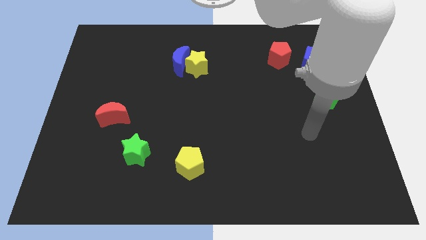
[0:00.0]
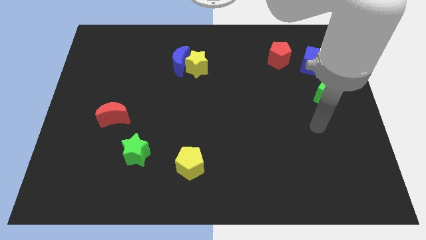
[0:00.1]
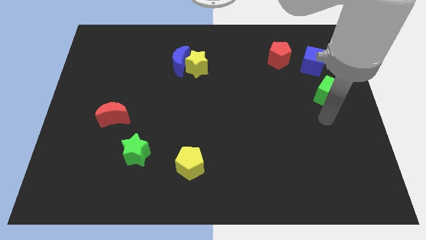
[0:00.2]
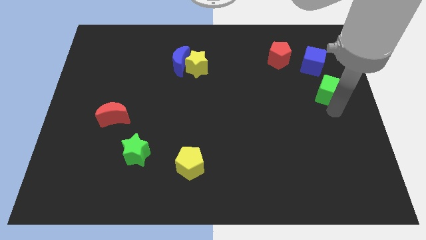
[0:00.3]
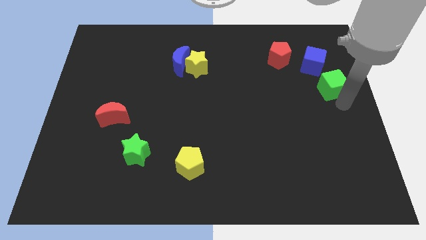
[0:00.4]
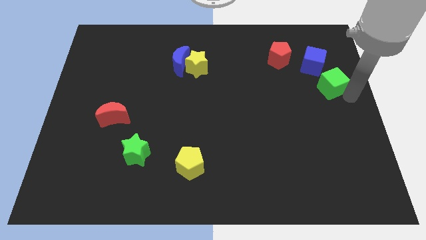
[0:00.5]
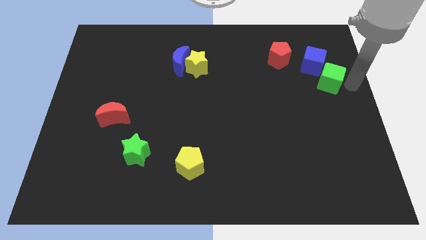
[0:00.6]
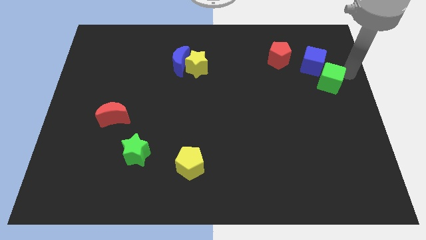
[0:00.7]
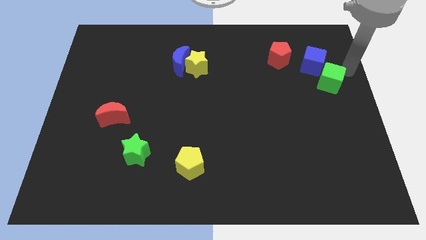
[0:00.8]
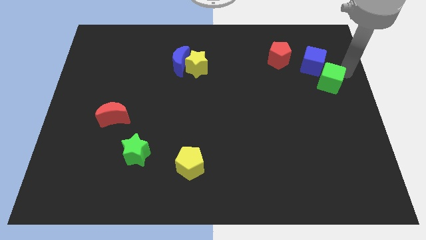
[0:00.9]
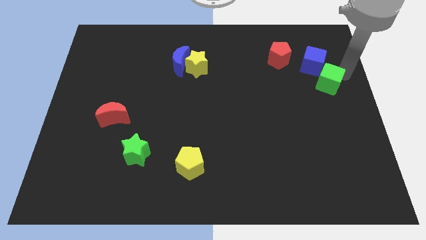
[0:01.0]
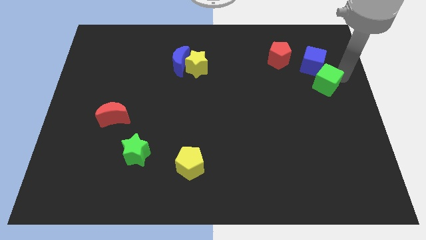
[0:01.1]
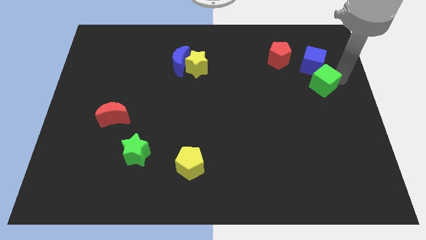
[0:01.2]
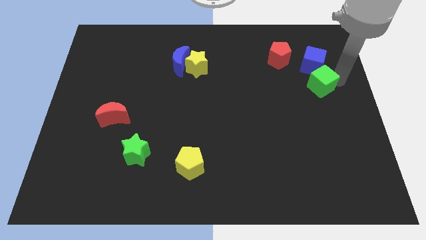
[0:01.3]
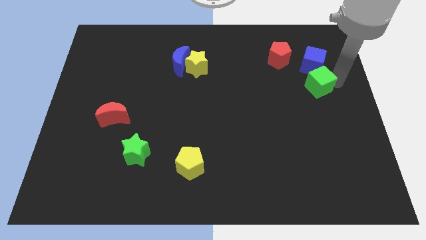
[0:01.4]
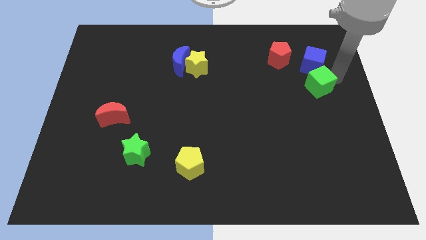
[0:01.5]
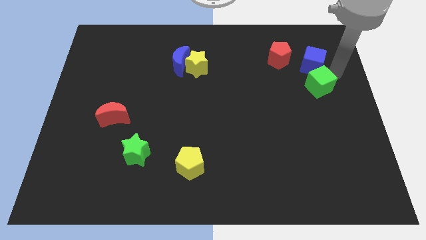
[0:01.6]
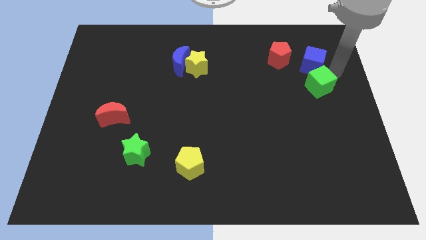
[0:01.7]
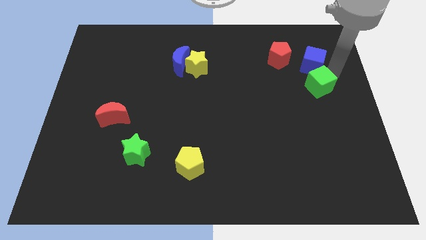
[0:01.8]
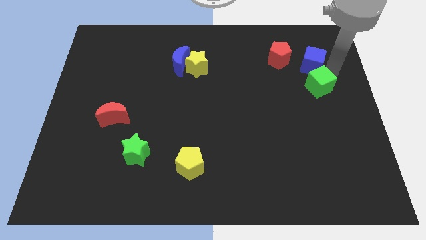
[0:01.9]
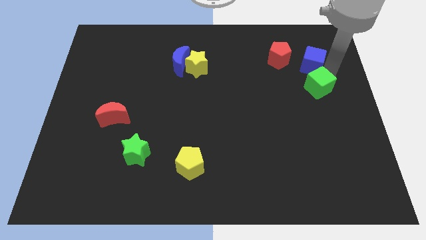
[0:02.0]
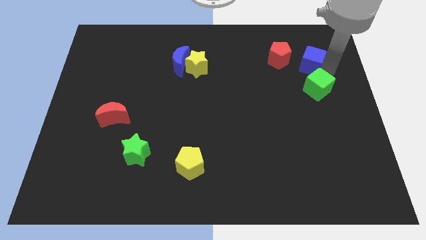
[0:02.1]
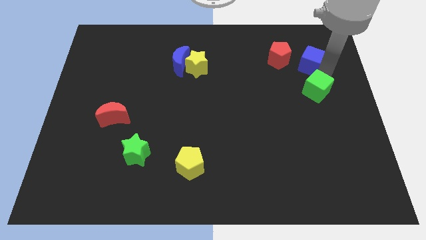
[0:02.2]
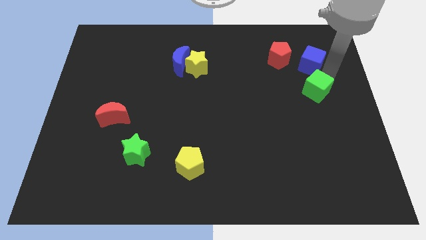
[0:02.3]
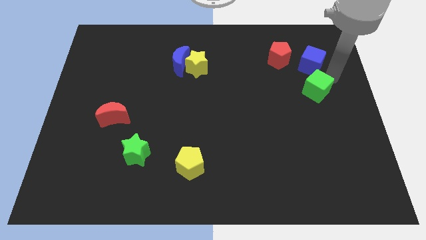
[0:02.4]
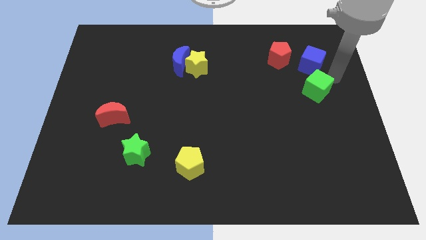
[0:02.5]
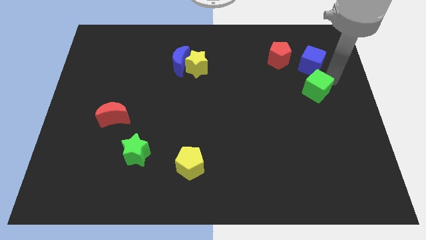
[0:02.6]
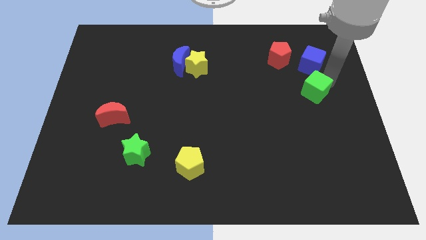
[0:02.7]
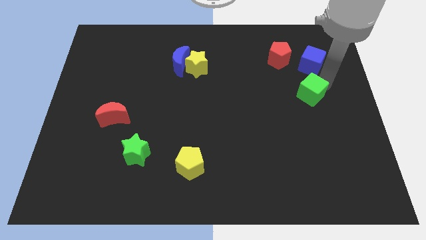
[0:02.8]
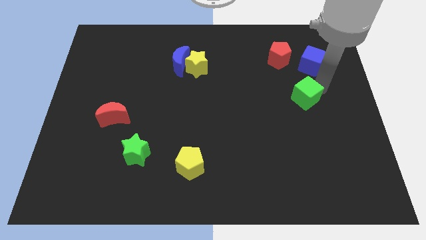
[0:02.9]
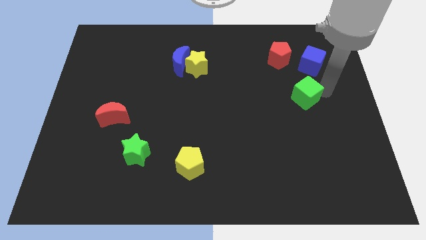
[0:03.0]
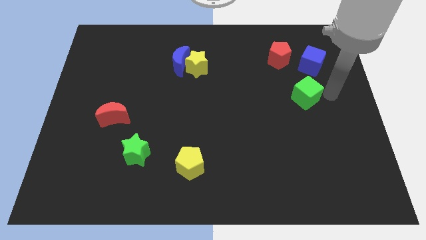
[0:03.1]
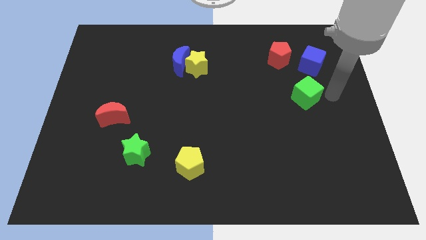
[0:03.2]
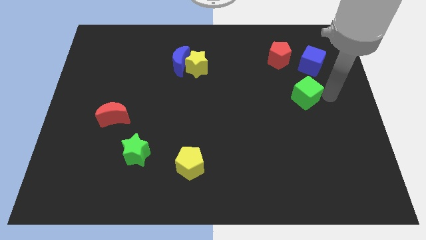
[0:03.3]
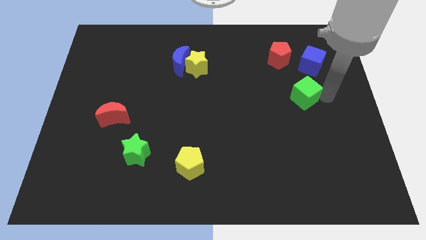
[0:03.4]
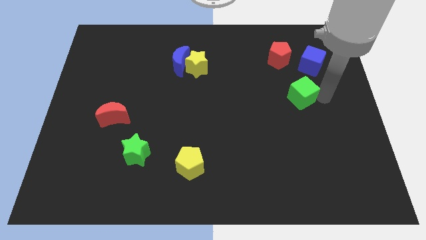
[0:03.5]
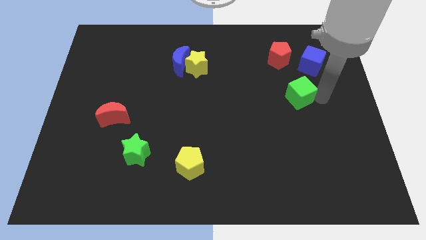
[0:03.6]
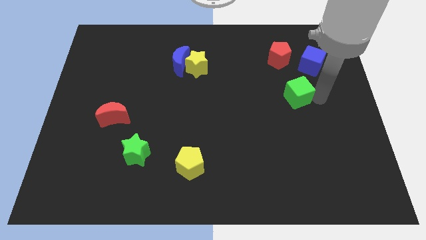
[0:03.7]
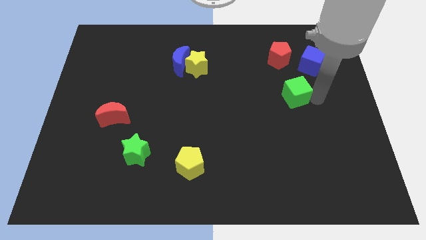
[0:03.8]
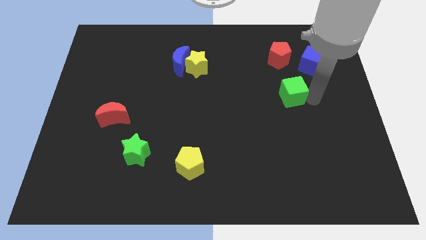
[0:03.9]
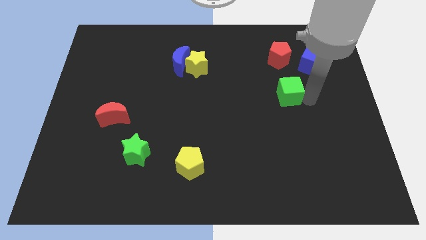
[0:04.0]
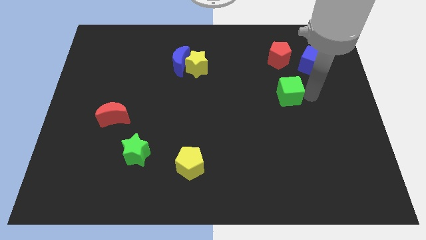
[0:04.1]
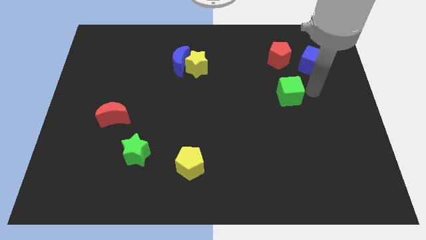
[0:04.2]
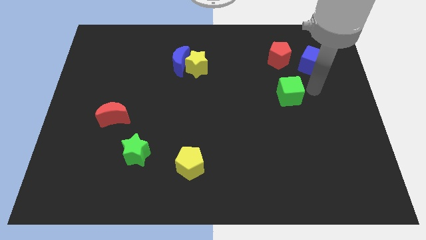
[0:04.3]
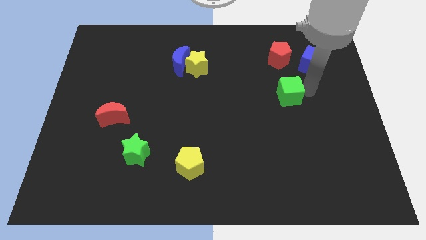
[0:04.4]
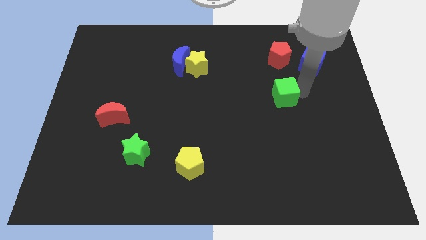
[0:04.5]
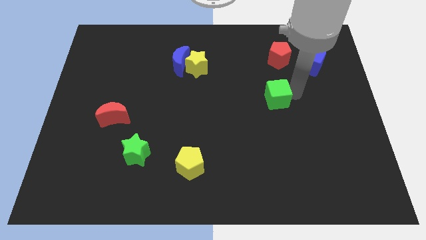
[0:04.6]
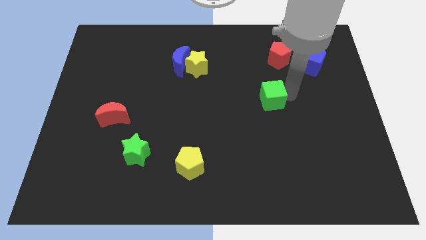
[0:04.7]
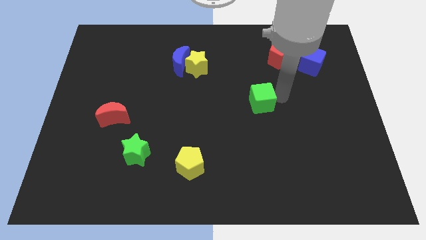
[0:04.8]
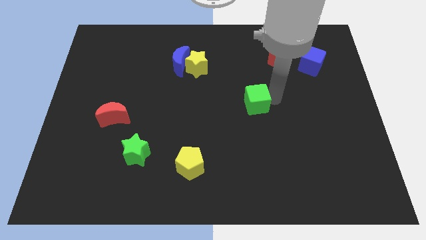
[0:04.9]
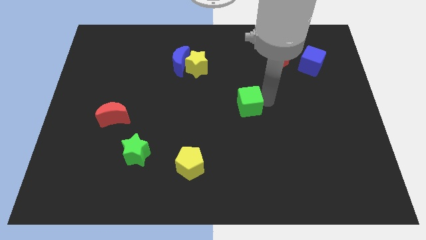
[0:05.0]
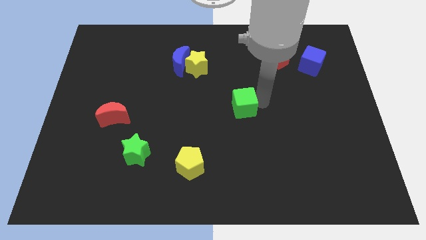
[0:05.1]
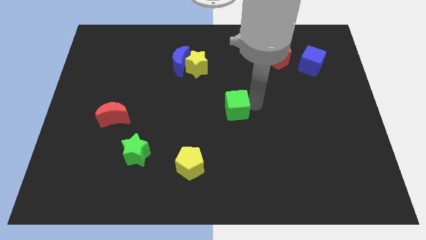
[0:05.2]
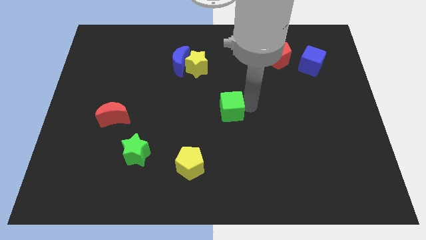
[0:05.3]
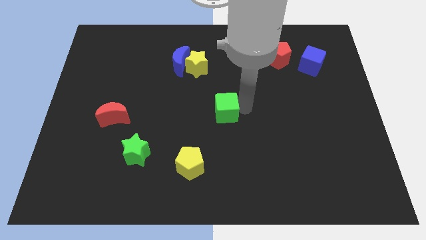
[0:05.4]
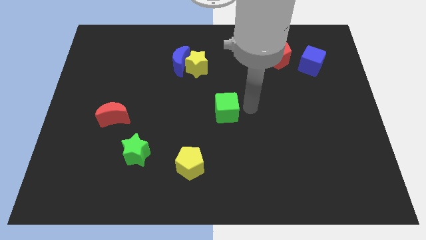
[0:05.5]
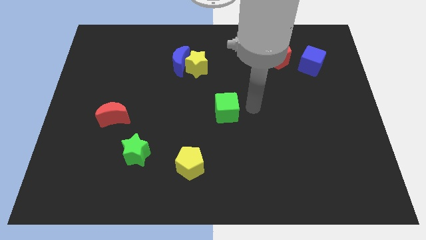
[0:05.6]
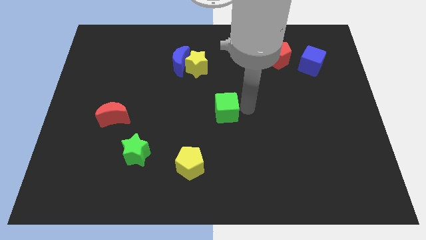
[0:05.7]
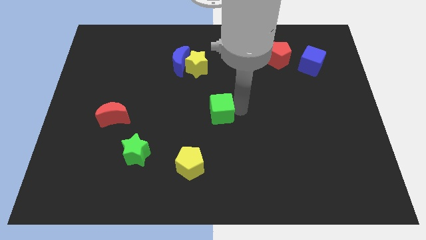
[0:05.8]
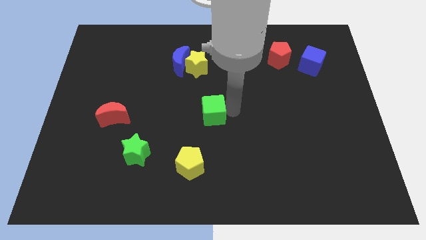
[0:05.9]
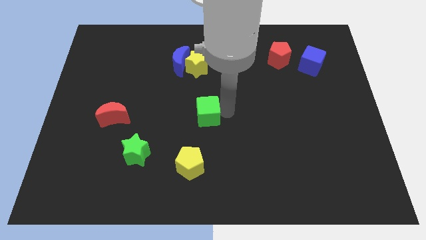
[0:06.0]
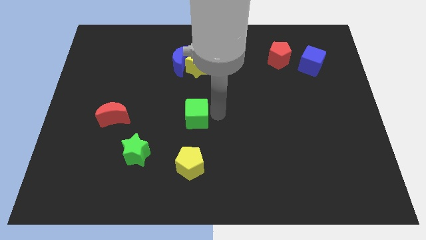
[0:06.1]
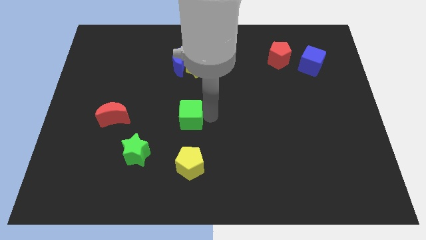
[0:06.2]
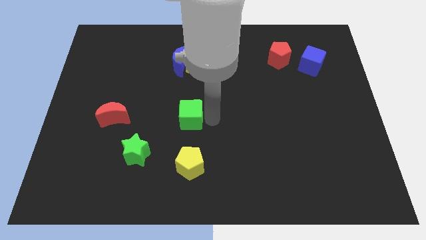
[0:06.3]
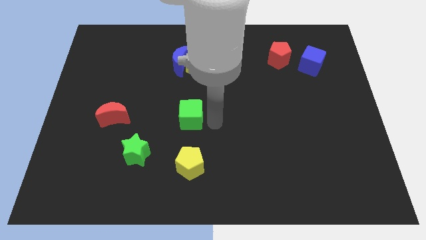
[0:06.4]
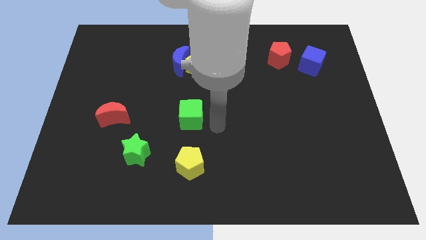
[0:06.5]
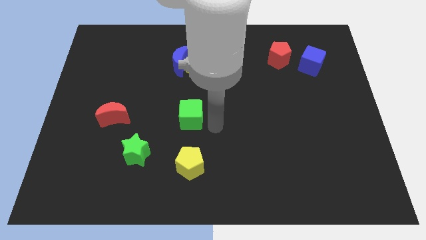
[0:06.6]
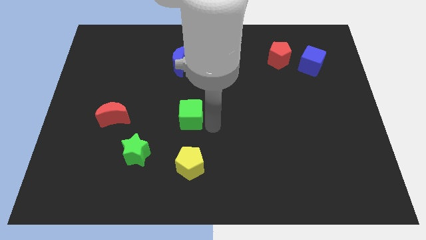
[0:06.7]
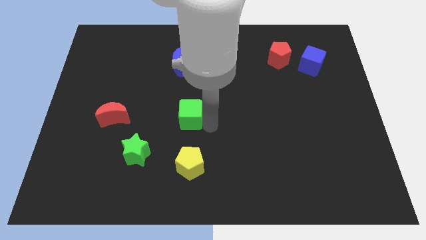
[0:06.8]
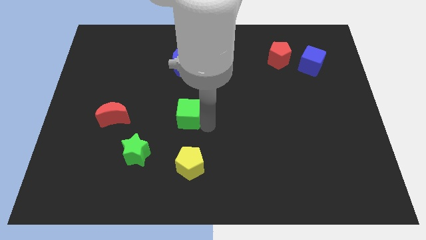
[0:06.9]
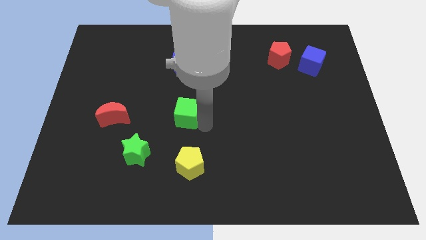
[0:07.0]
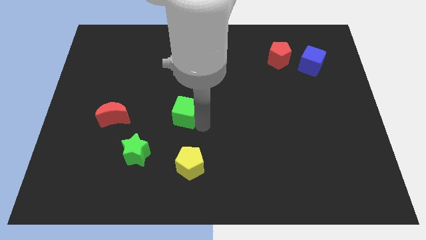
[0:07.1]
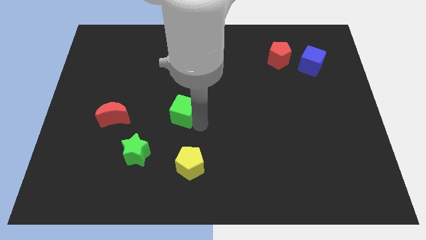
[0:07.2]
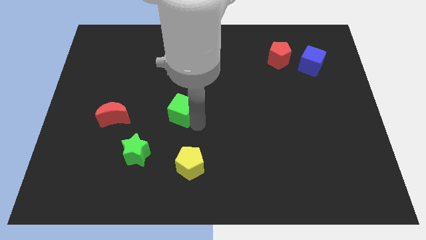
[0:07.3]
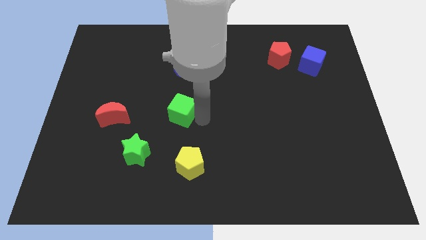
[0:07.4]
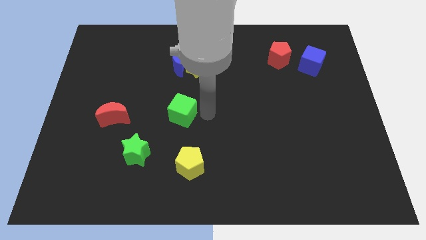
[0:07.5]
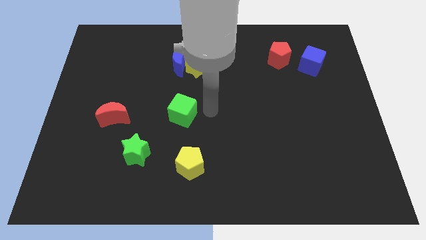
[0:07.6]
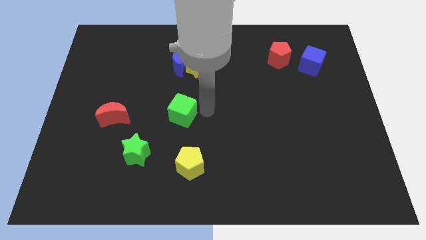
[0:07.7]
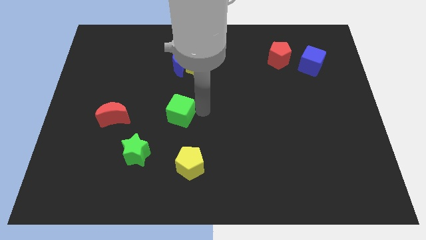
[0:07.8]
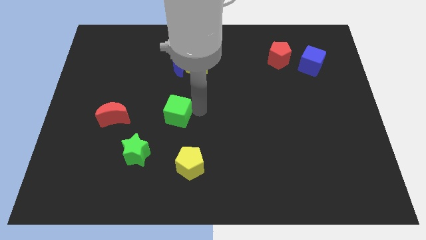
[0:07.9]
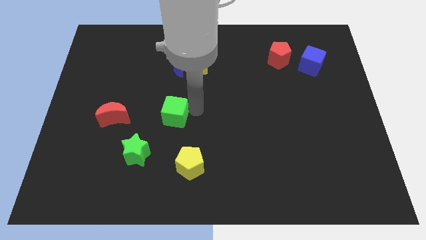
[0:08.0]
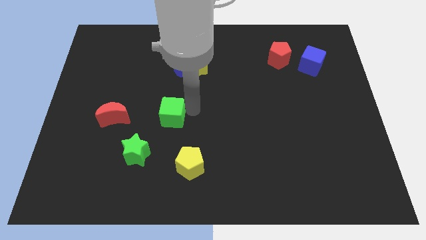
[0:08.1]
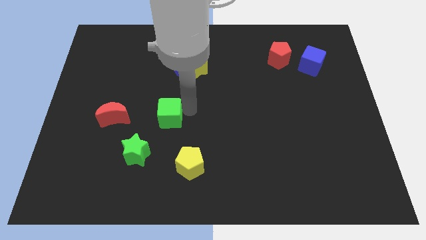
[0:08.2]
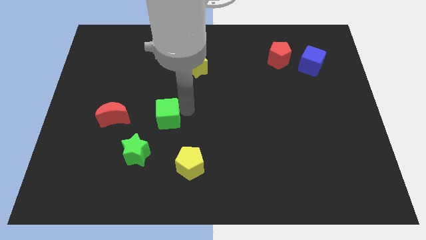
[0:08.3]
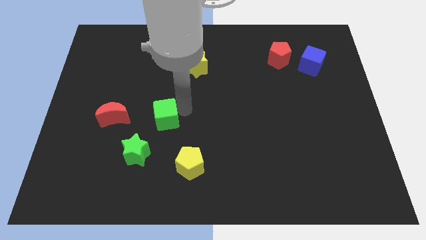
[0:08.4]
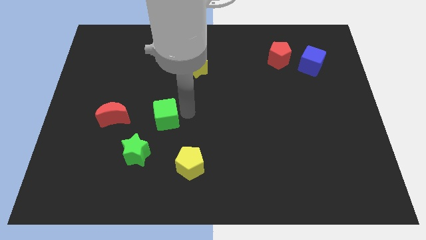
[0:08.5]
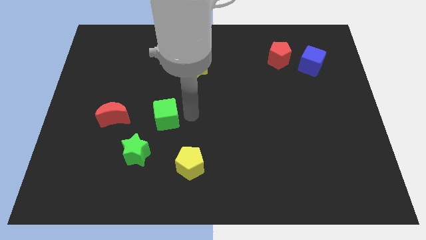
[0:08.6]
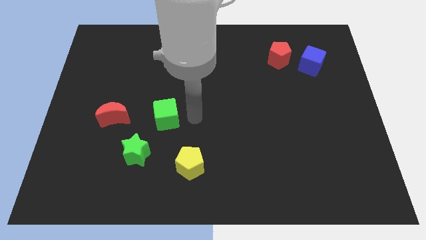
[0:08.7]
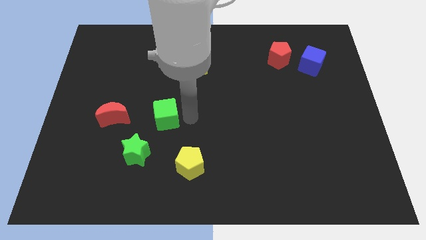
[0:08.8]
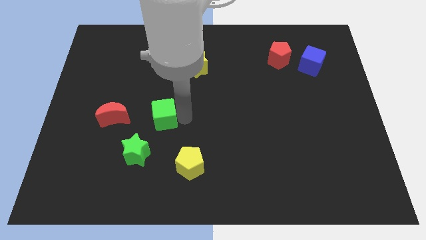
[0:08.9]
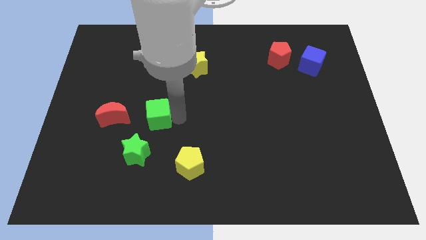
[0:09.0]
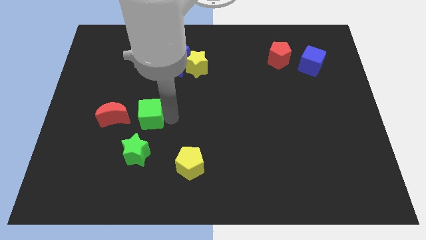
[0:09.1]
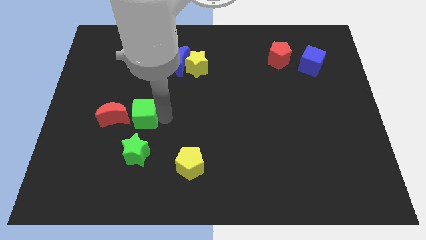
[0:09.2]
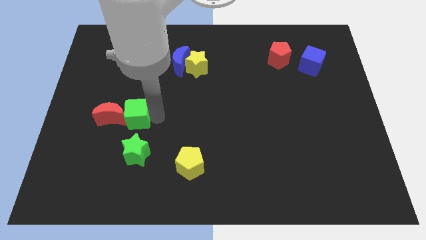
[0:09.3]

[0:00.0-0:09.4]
slide the green cube close to the red moon
